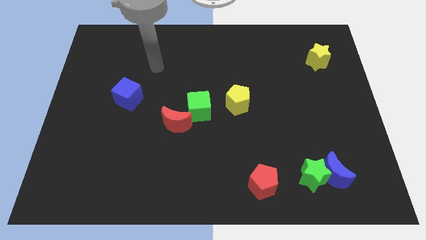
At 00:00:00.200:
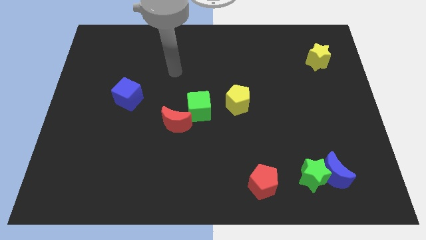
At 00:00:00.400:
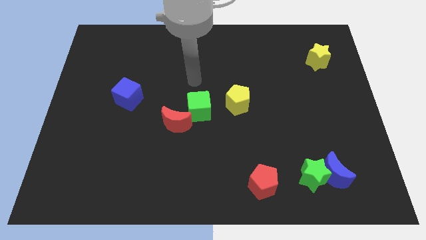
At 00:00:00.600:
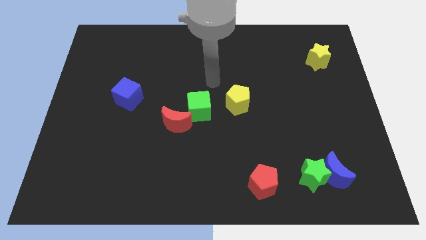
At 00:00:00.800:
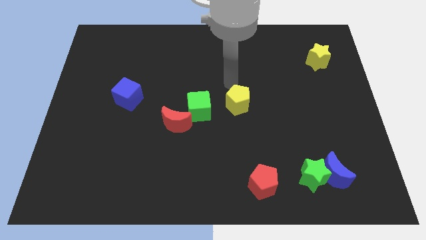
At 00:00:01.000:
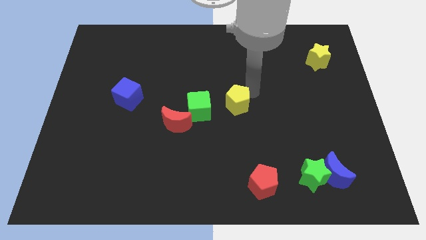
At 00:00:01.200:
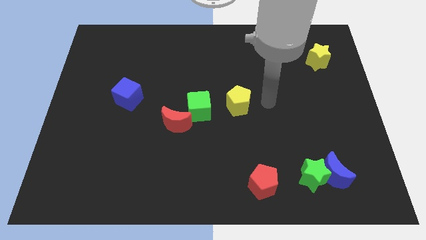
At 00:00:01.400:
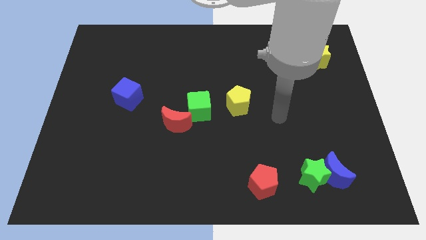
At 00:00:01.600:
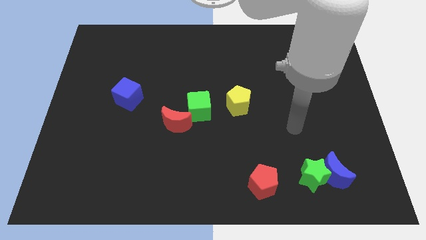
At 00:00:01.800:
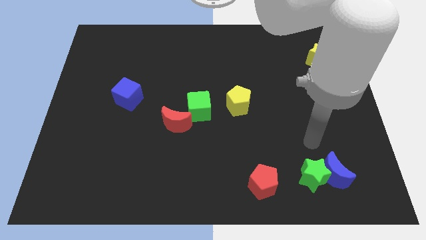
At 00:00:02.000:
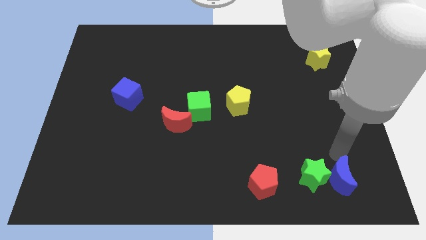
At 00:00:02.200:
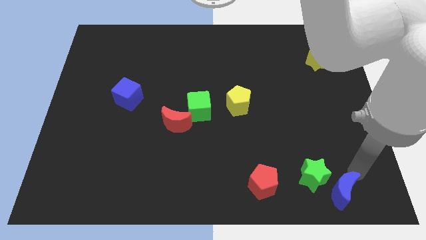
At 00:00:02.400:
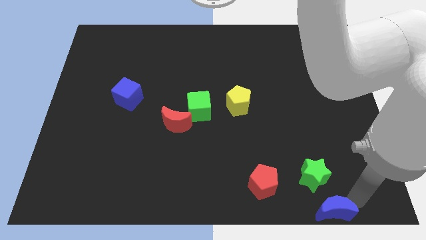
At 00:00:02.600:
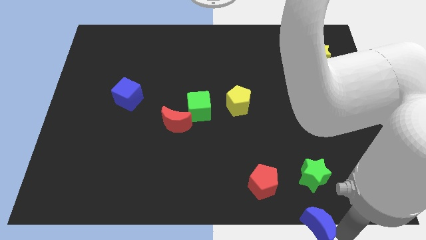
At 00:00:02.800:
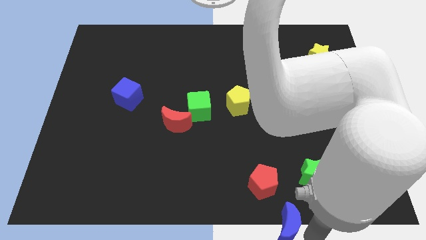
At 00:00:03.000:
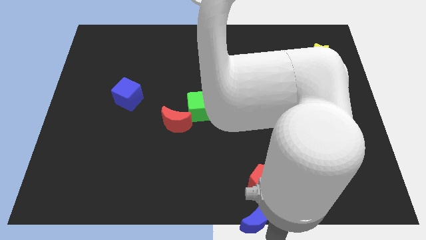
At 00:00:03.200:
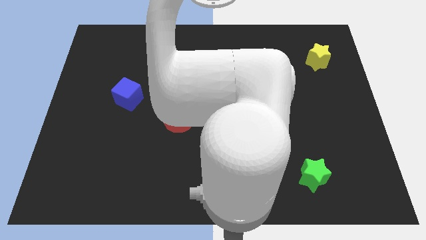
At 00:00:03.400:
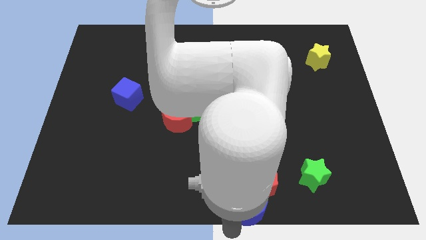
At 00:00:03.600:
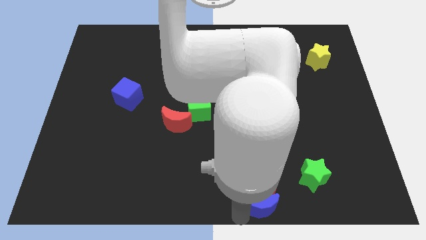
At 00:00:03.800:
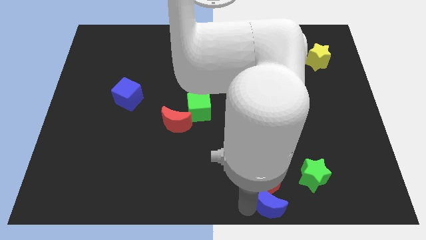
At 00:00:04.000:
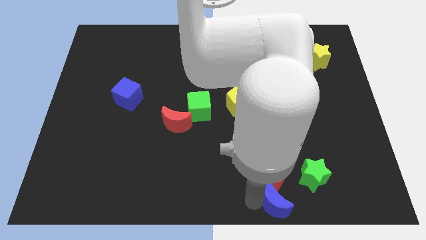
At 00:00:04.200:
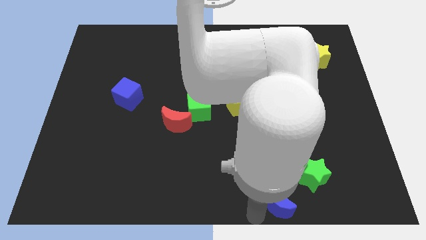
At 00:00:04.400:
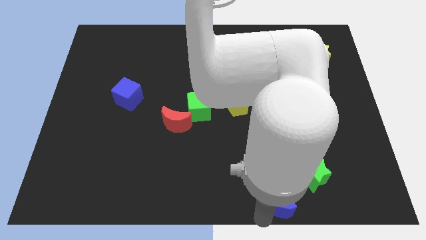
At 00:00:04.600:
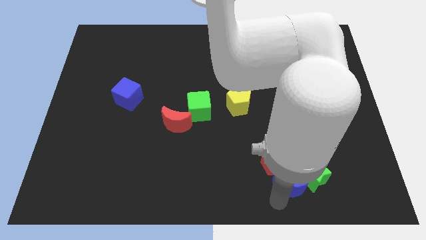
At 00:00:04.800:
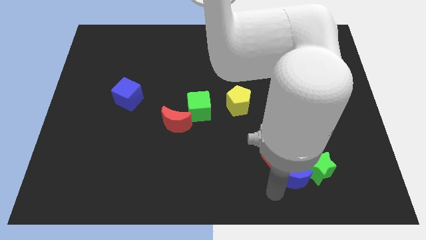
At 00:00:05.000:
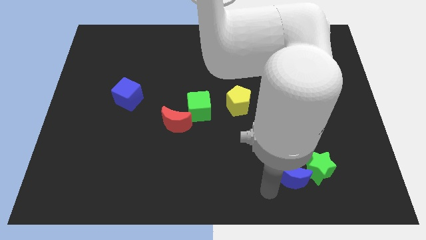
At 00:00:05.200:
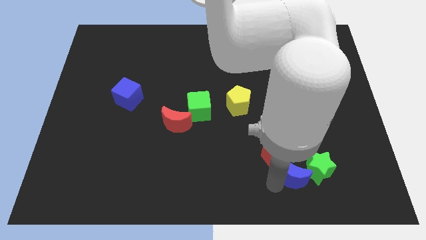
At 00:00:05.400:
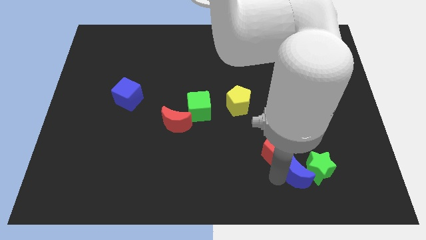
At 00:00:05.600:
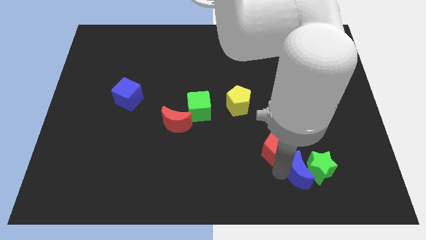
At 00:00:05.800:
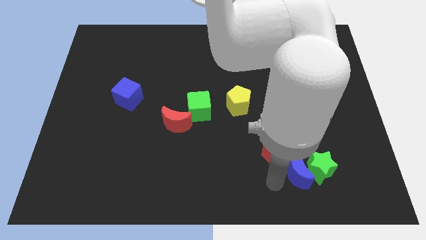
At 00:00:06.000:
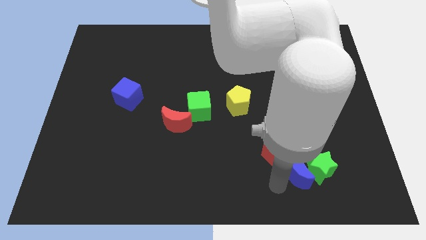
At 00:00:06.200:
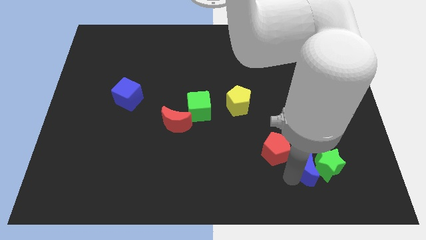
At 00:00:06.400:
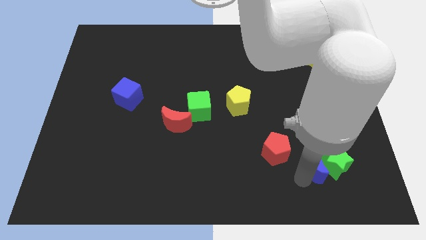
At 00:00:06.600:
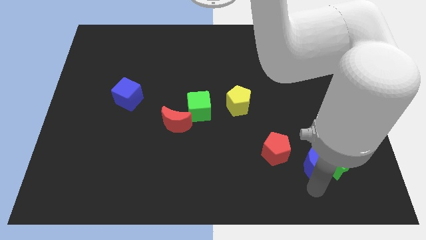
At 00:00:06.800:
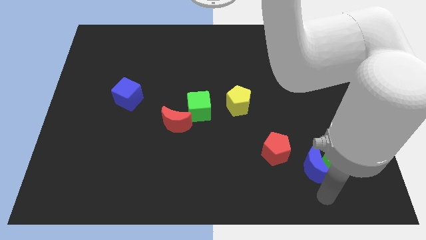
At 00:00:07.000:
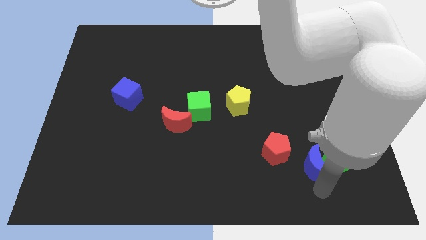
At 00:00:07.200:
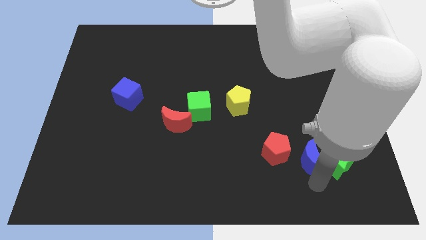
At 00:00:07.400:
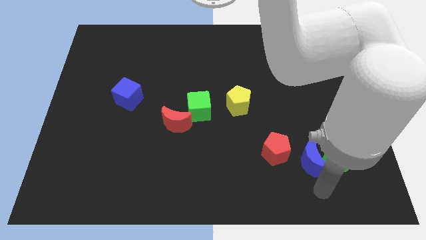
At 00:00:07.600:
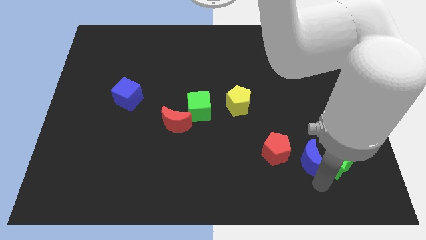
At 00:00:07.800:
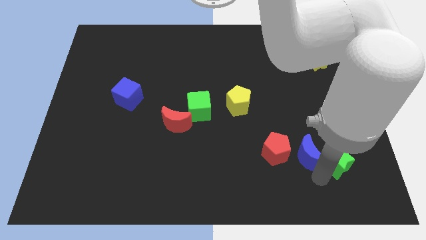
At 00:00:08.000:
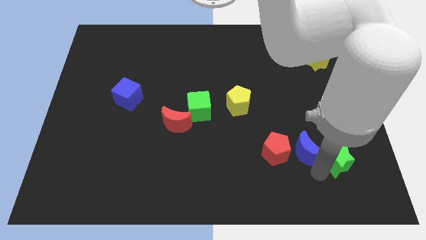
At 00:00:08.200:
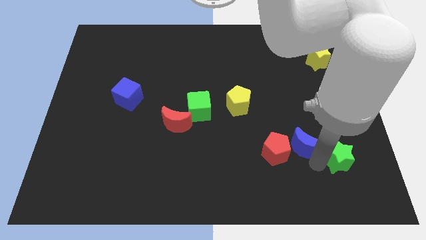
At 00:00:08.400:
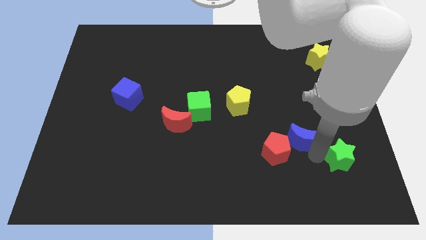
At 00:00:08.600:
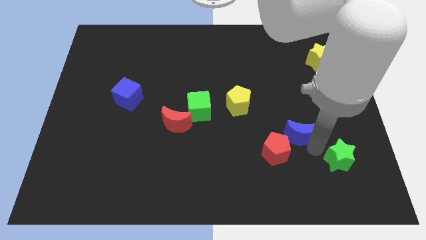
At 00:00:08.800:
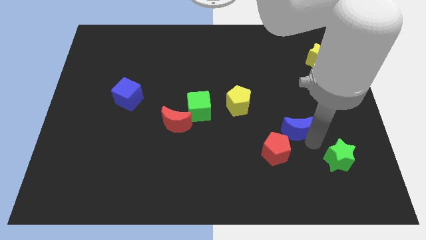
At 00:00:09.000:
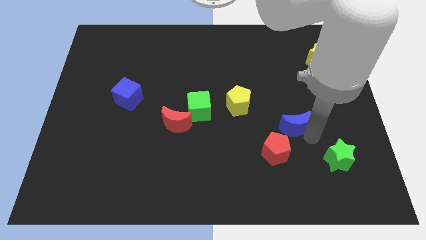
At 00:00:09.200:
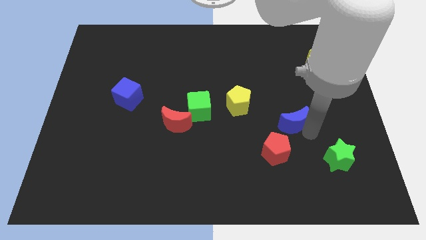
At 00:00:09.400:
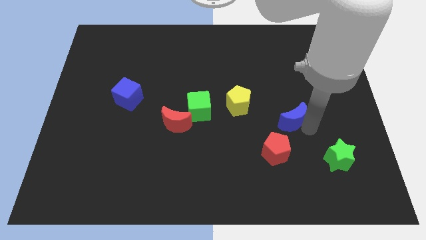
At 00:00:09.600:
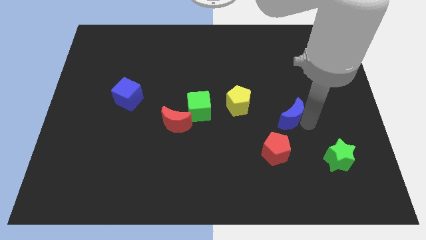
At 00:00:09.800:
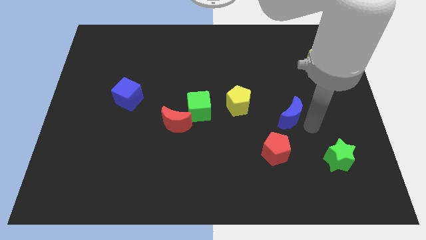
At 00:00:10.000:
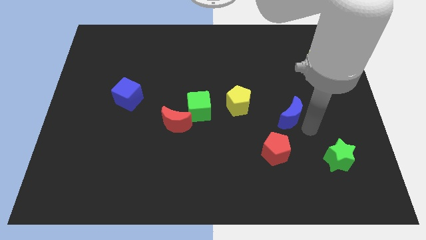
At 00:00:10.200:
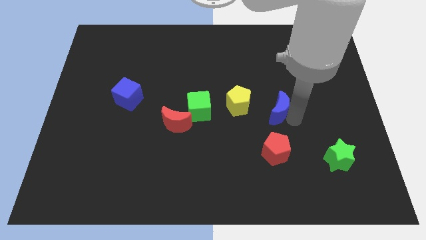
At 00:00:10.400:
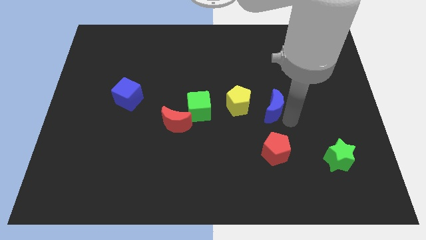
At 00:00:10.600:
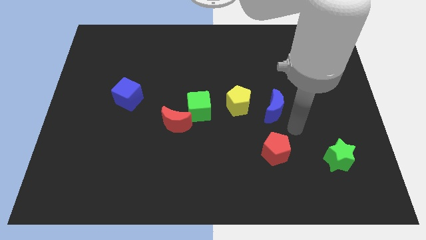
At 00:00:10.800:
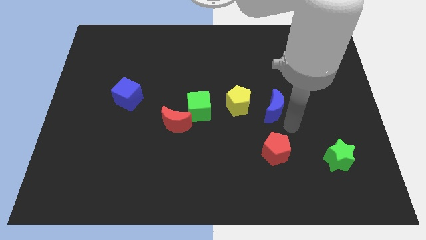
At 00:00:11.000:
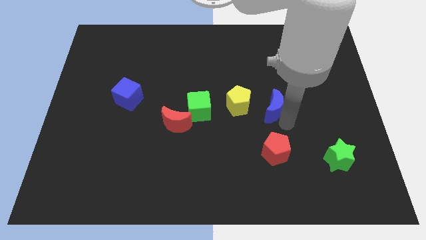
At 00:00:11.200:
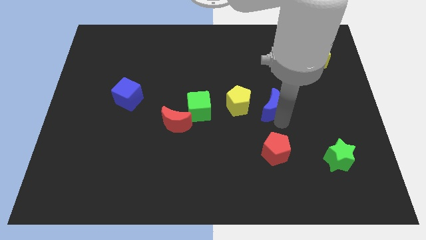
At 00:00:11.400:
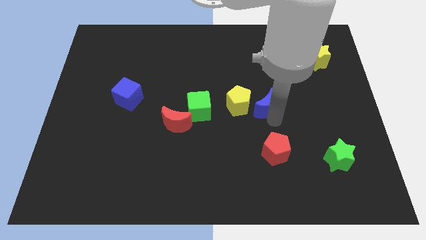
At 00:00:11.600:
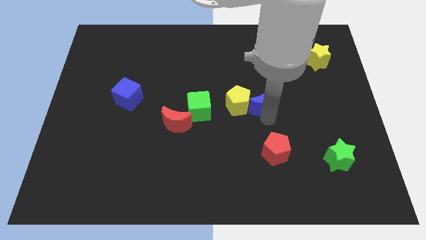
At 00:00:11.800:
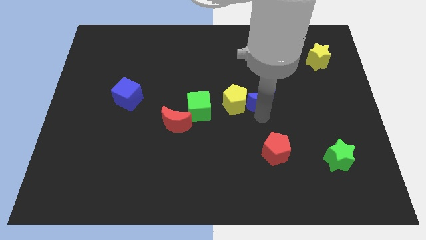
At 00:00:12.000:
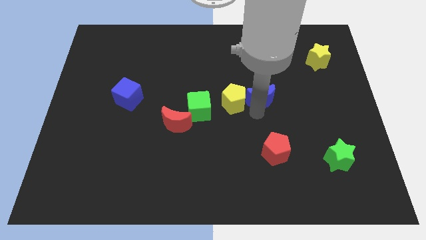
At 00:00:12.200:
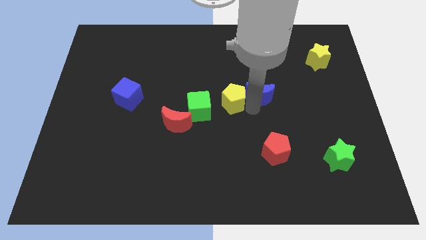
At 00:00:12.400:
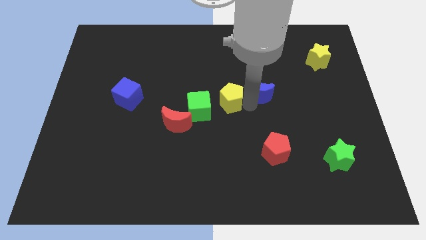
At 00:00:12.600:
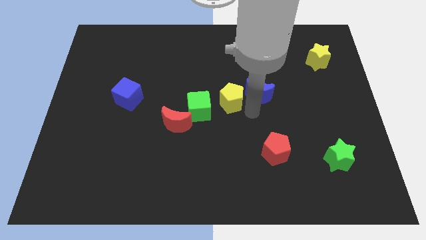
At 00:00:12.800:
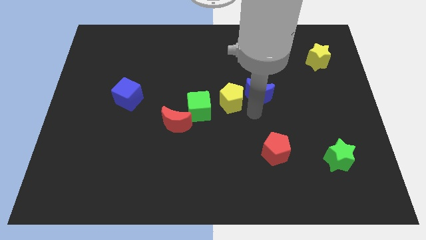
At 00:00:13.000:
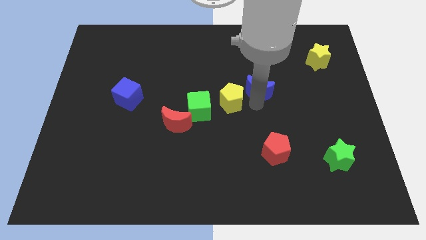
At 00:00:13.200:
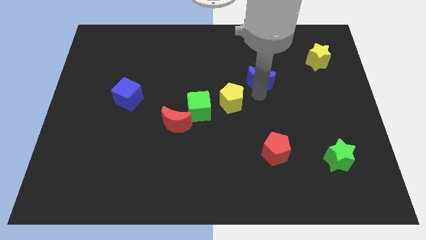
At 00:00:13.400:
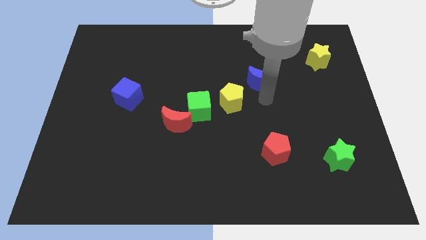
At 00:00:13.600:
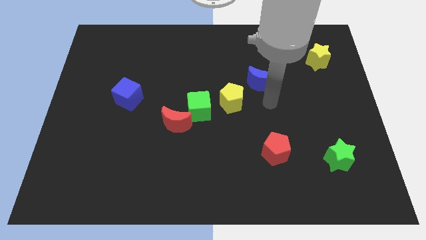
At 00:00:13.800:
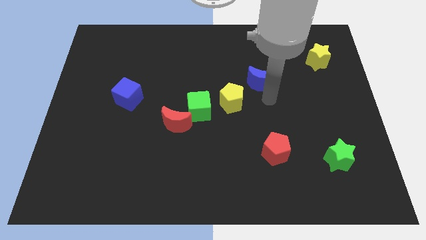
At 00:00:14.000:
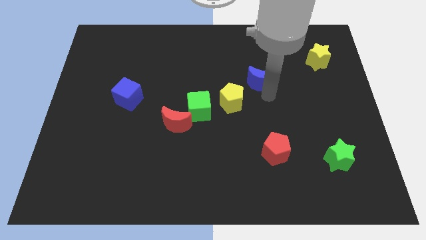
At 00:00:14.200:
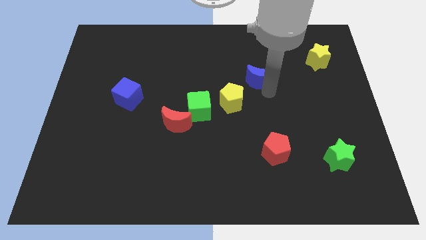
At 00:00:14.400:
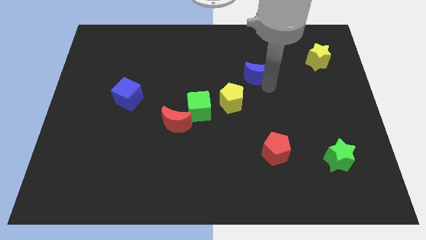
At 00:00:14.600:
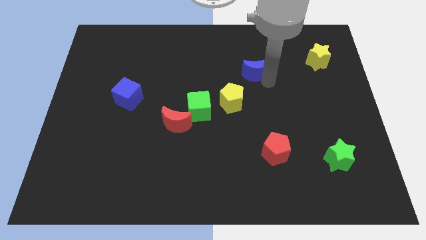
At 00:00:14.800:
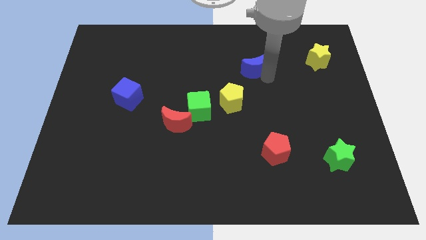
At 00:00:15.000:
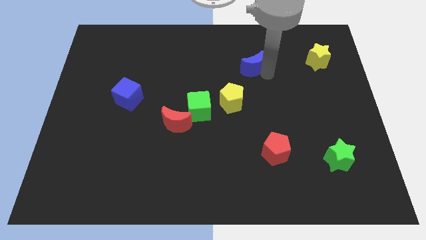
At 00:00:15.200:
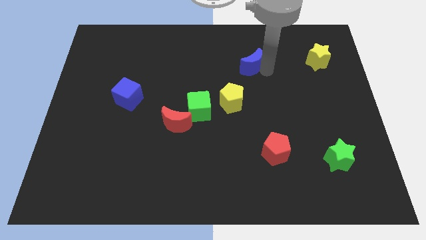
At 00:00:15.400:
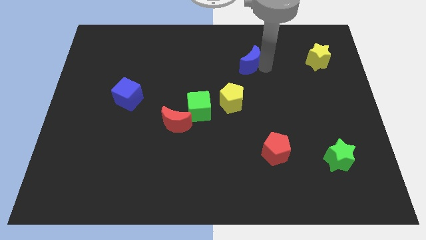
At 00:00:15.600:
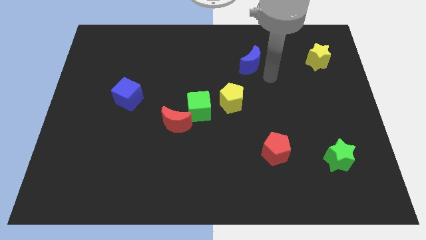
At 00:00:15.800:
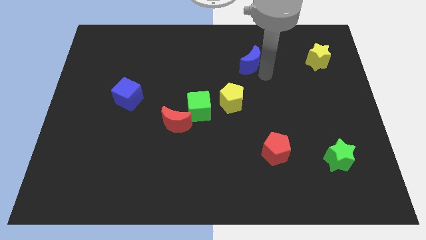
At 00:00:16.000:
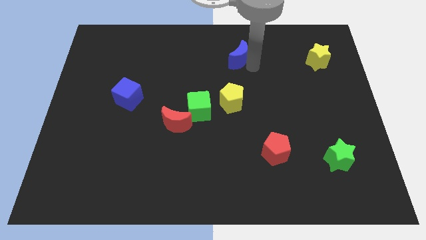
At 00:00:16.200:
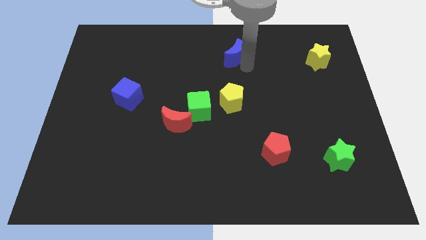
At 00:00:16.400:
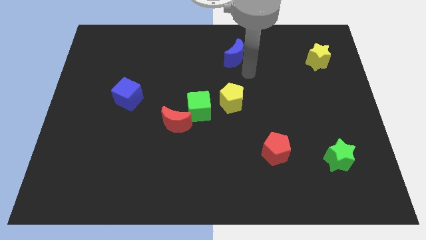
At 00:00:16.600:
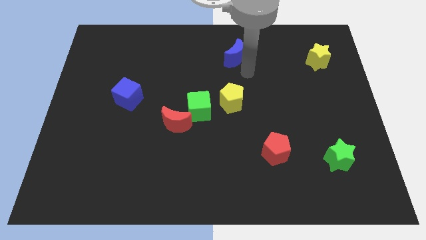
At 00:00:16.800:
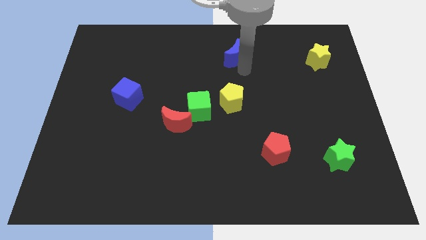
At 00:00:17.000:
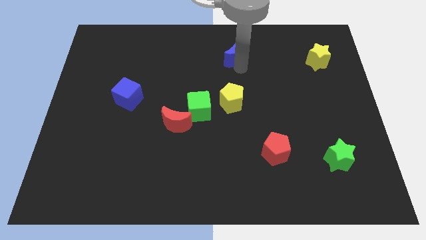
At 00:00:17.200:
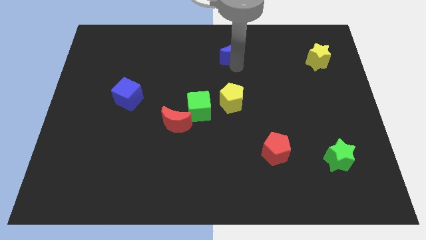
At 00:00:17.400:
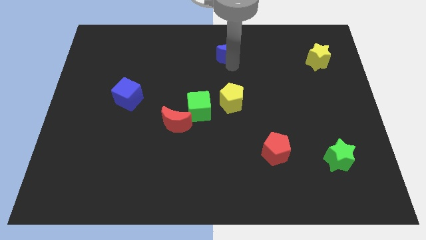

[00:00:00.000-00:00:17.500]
slide the blue moon to the towards your base
